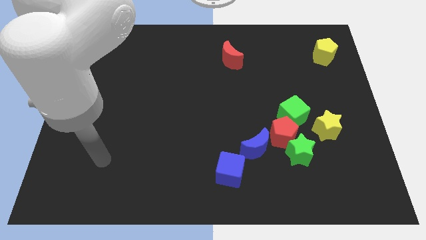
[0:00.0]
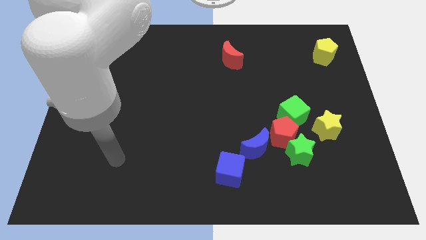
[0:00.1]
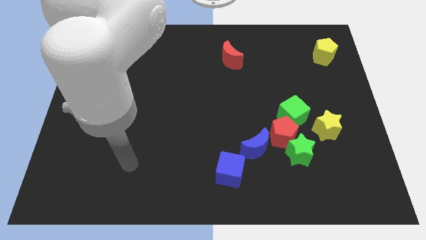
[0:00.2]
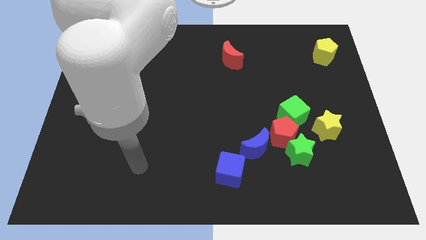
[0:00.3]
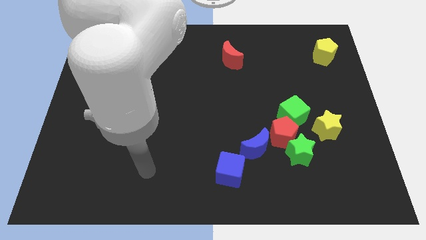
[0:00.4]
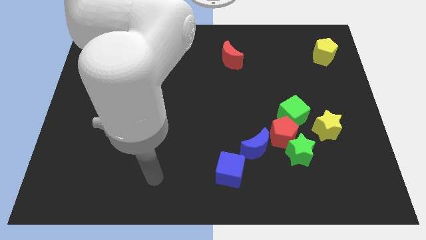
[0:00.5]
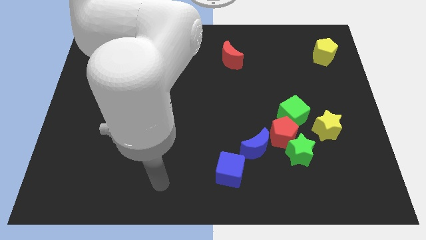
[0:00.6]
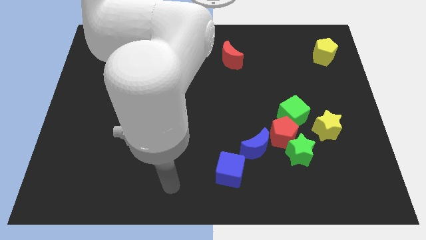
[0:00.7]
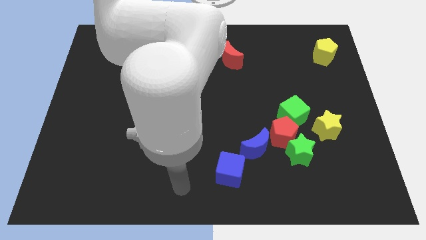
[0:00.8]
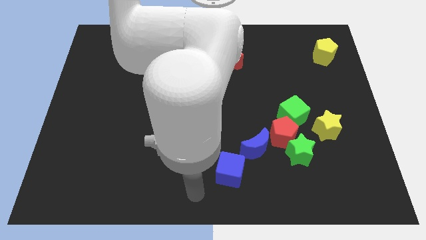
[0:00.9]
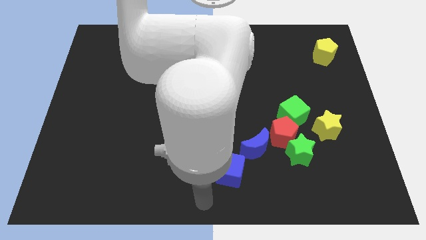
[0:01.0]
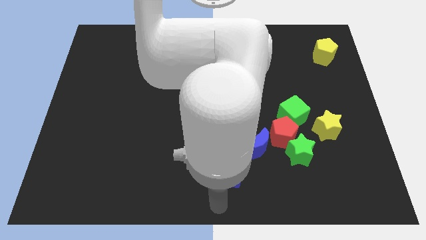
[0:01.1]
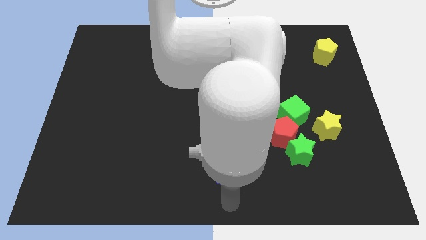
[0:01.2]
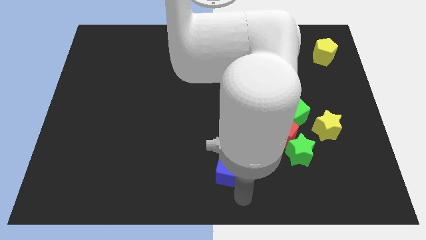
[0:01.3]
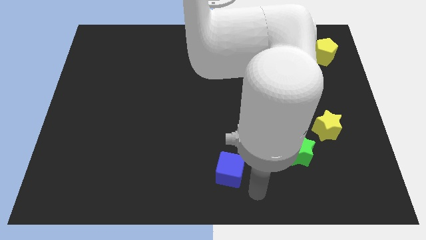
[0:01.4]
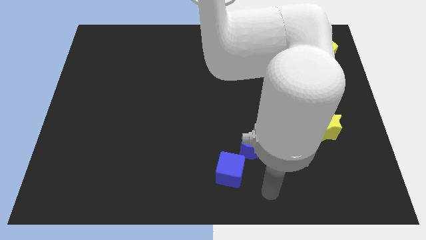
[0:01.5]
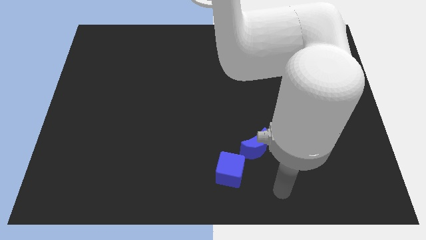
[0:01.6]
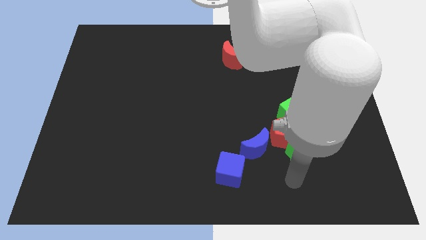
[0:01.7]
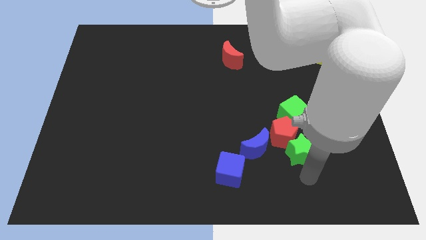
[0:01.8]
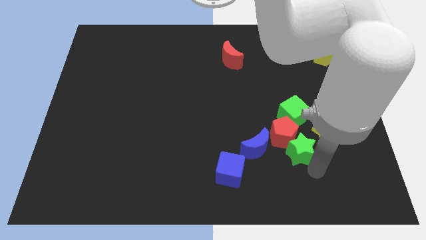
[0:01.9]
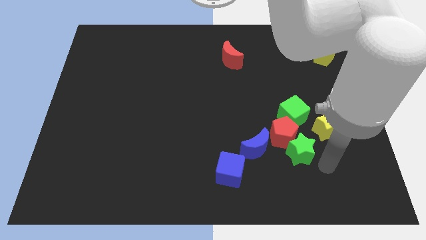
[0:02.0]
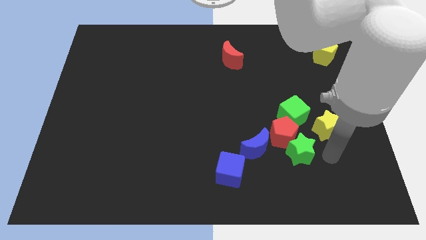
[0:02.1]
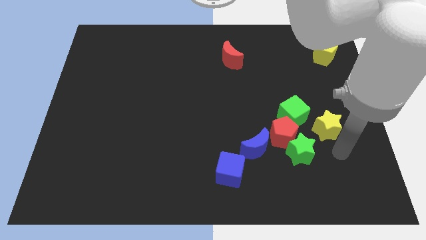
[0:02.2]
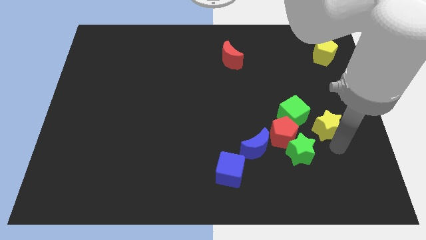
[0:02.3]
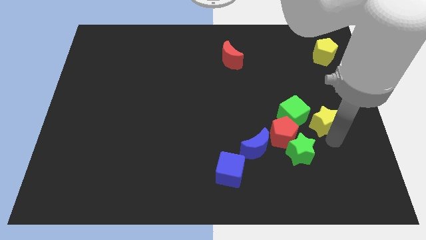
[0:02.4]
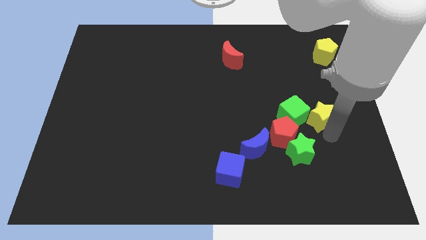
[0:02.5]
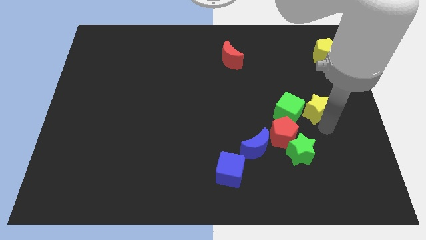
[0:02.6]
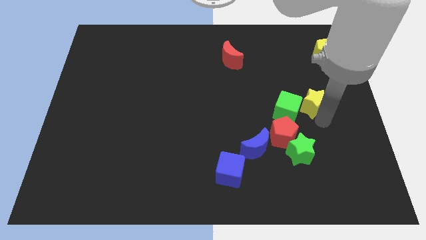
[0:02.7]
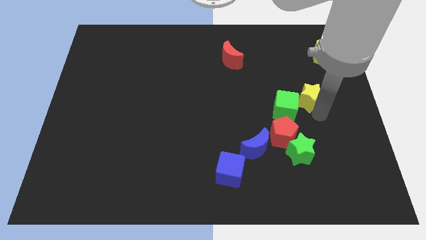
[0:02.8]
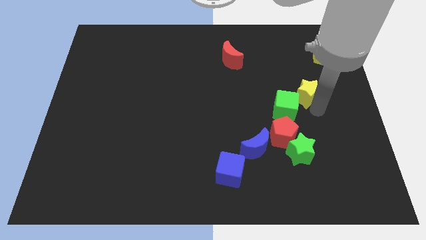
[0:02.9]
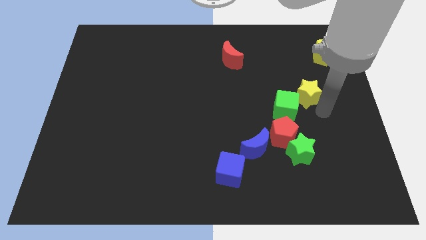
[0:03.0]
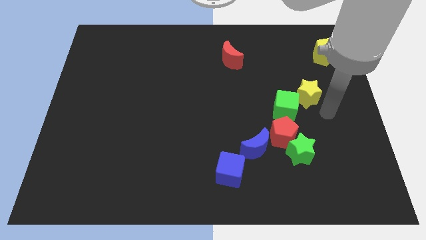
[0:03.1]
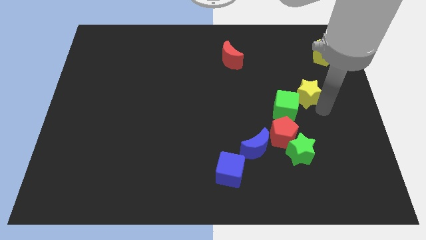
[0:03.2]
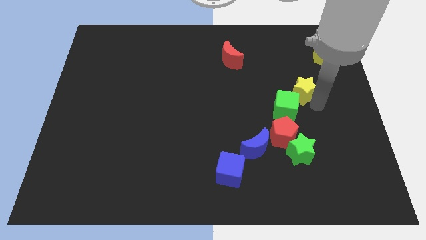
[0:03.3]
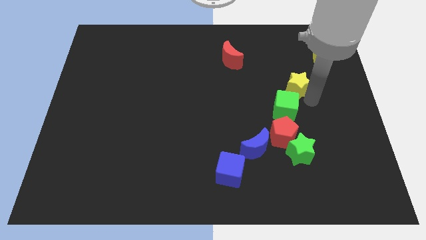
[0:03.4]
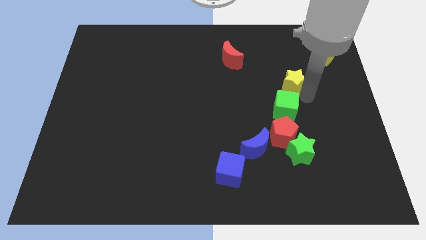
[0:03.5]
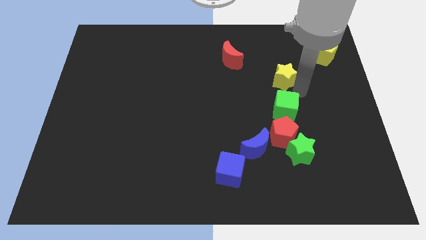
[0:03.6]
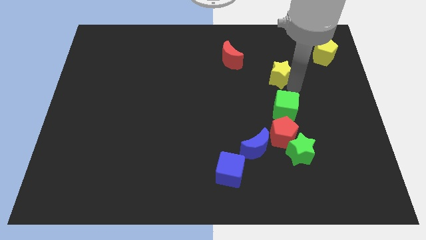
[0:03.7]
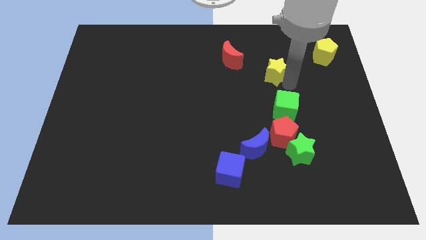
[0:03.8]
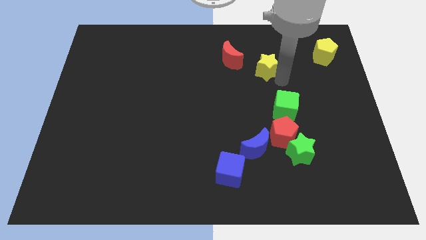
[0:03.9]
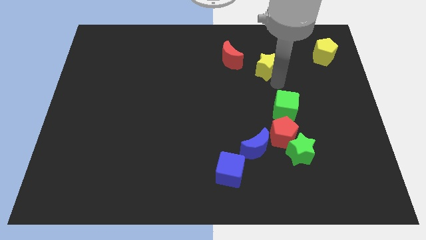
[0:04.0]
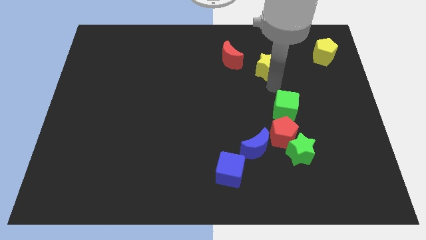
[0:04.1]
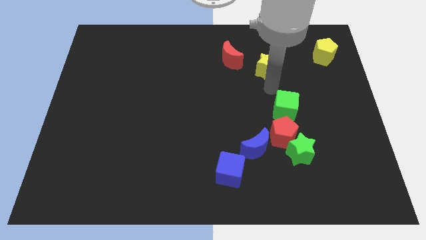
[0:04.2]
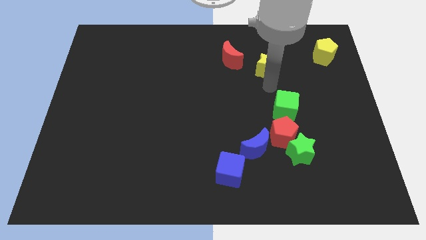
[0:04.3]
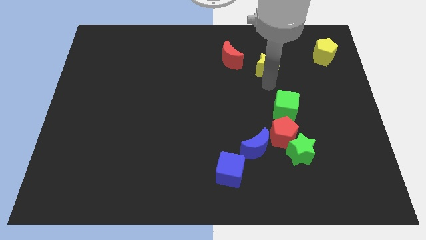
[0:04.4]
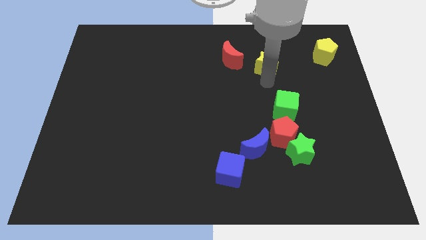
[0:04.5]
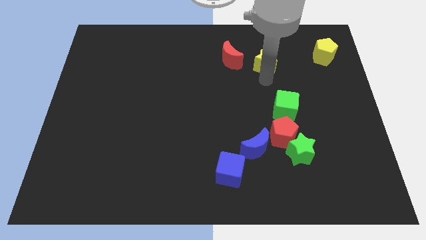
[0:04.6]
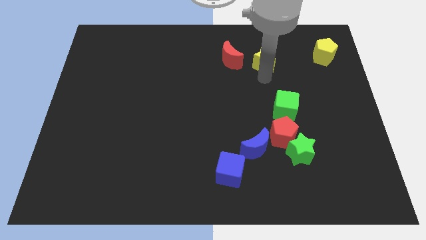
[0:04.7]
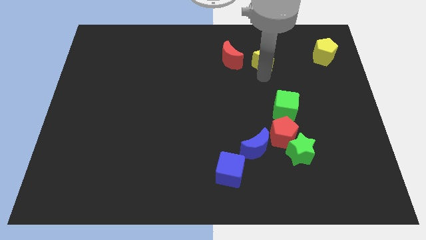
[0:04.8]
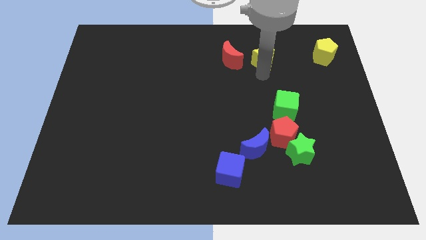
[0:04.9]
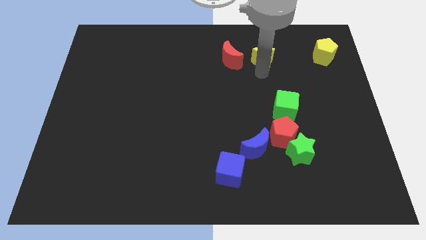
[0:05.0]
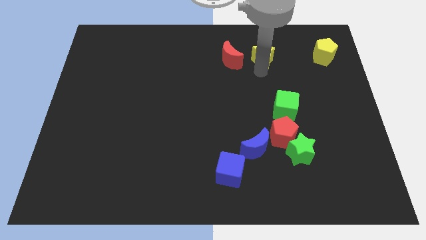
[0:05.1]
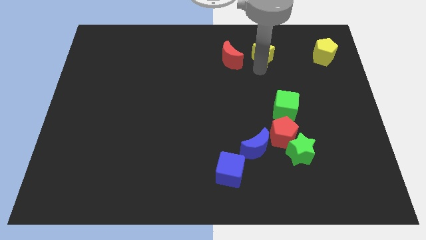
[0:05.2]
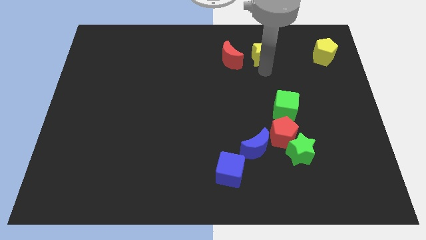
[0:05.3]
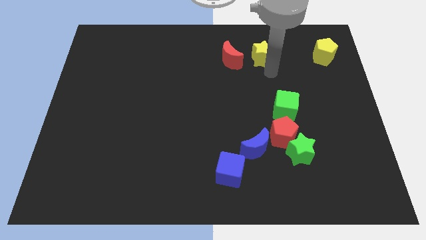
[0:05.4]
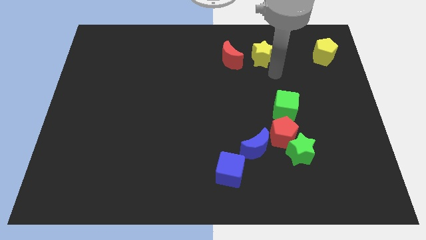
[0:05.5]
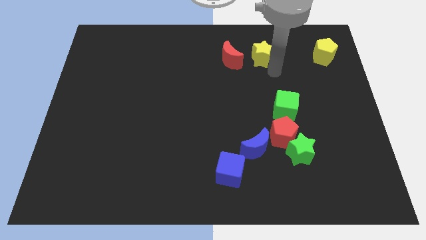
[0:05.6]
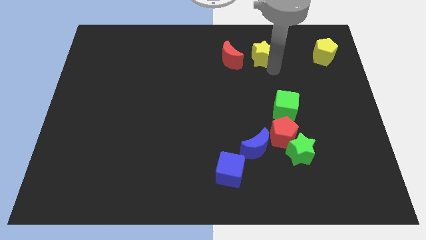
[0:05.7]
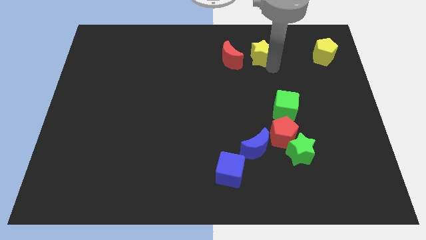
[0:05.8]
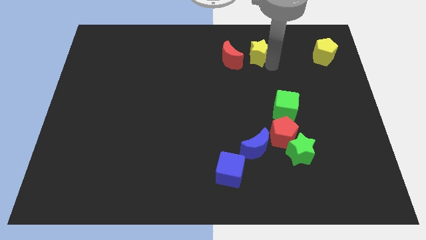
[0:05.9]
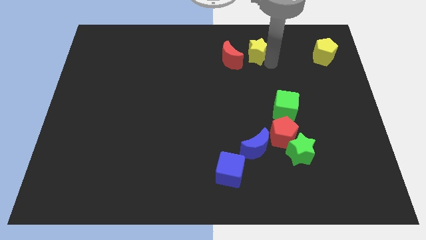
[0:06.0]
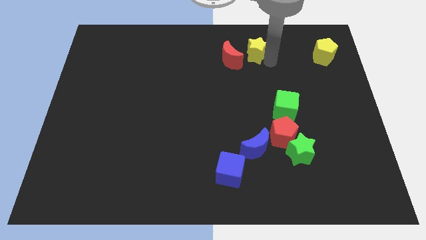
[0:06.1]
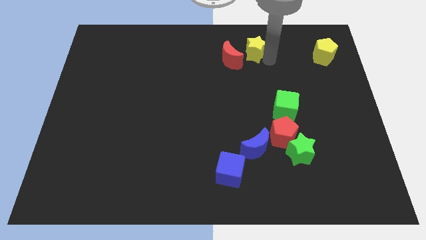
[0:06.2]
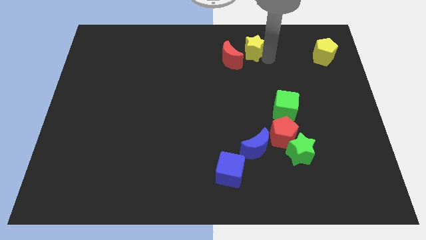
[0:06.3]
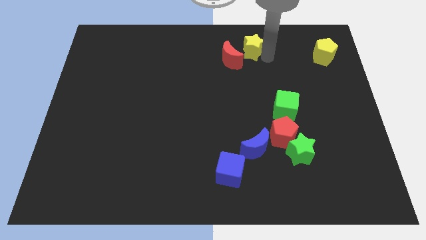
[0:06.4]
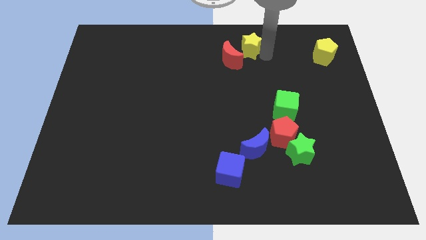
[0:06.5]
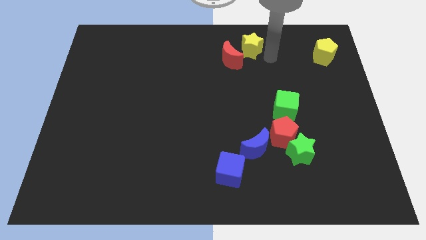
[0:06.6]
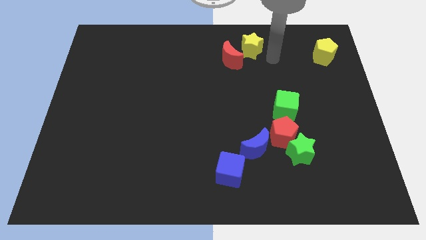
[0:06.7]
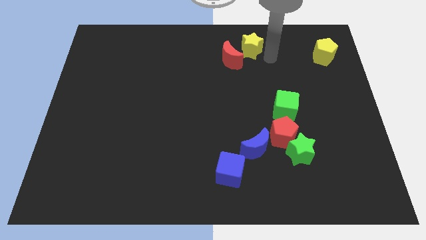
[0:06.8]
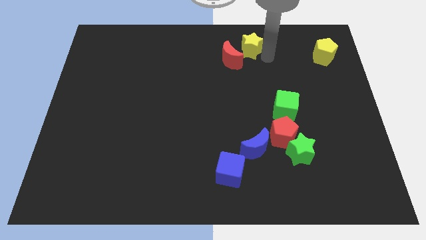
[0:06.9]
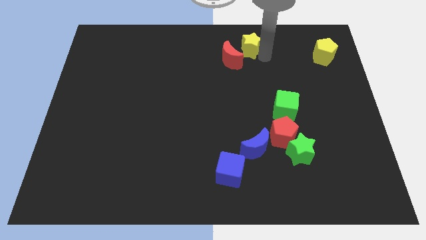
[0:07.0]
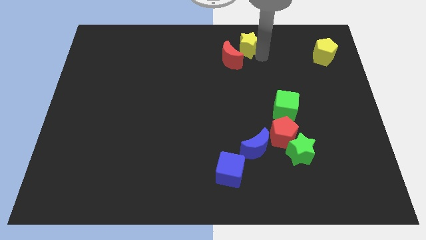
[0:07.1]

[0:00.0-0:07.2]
move the yellow star to the top side
